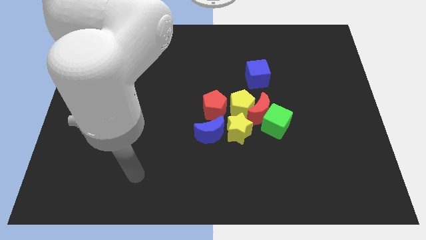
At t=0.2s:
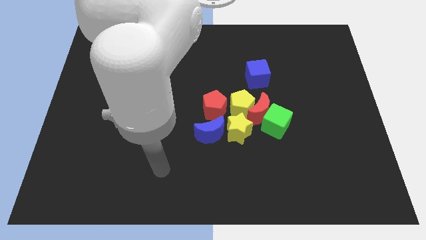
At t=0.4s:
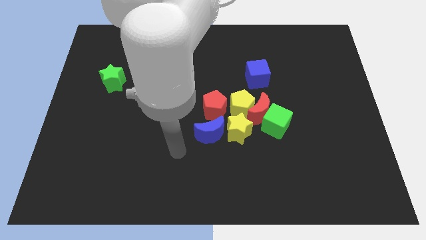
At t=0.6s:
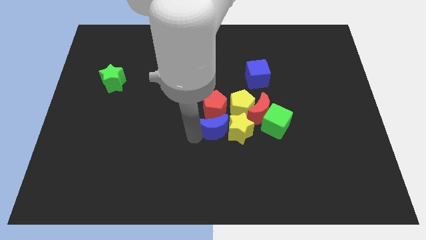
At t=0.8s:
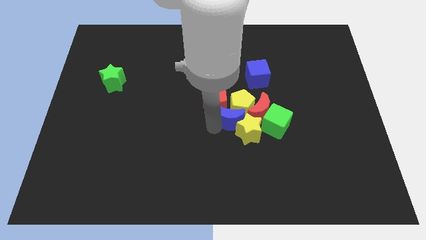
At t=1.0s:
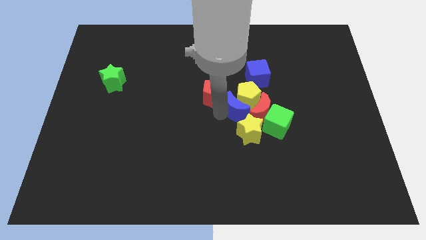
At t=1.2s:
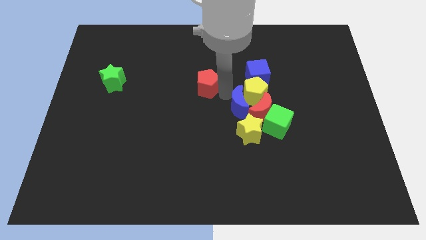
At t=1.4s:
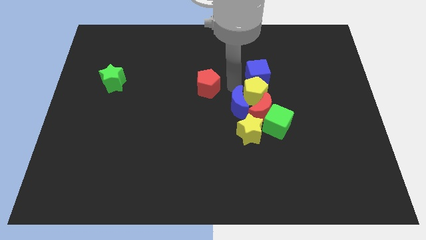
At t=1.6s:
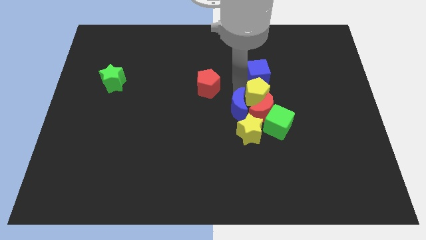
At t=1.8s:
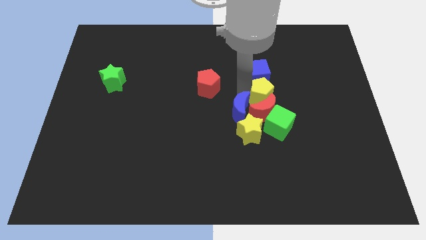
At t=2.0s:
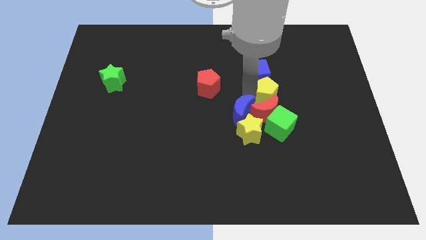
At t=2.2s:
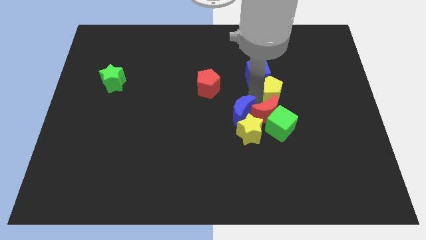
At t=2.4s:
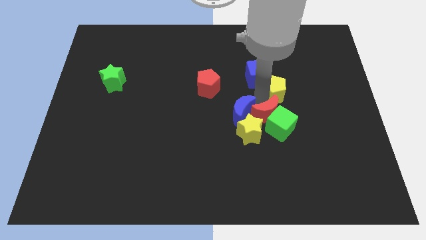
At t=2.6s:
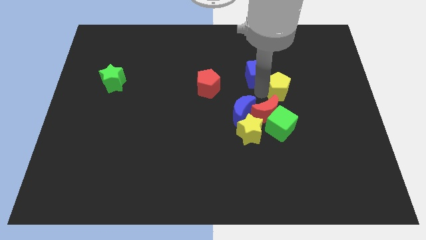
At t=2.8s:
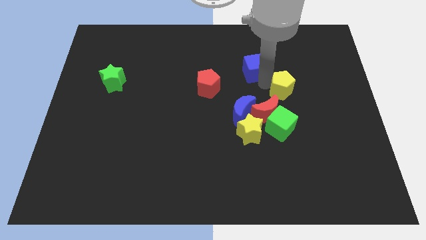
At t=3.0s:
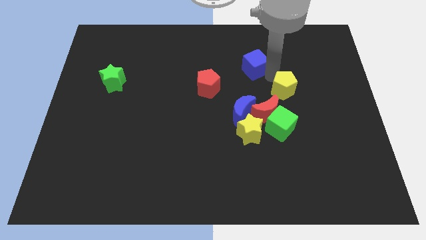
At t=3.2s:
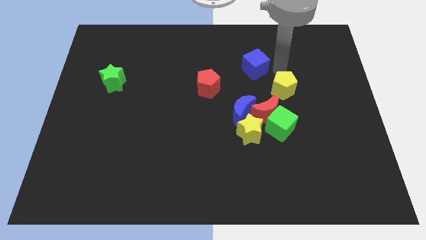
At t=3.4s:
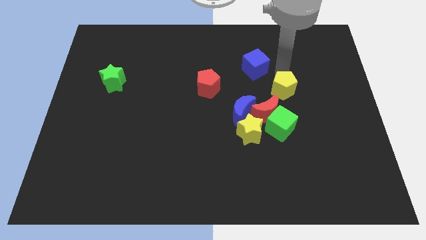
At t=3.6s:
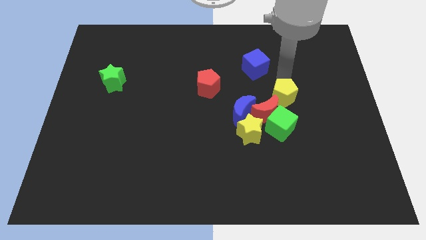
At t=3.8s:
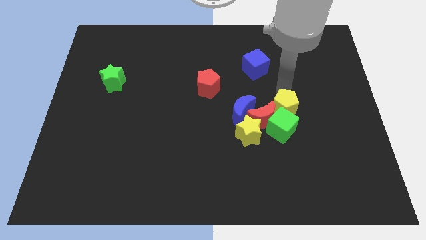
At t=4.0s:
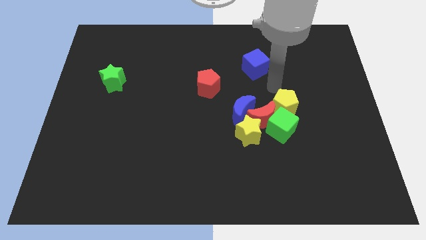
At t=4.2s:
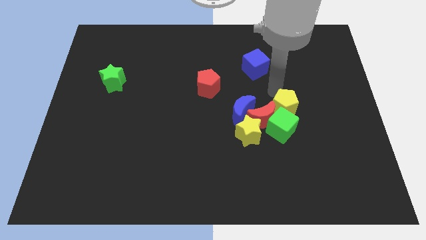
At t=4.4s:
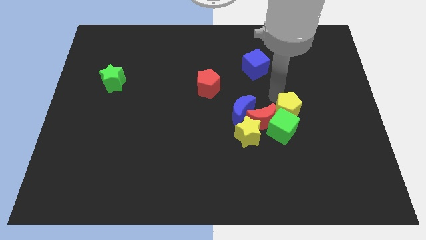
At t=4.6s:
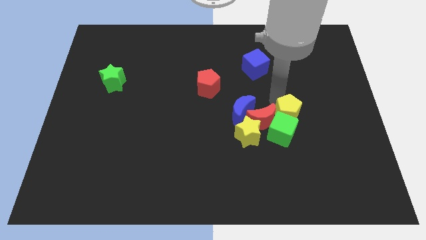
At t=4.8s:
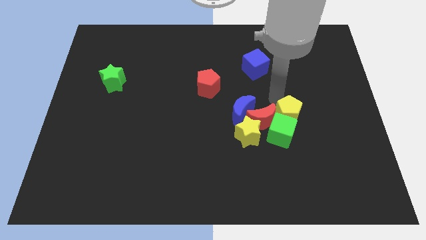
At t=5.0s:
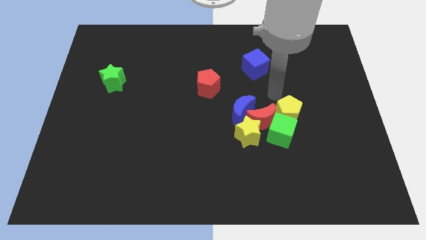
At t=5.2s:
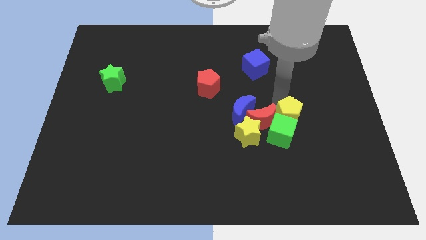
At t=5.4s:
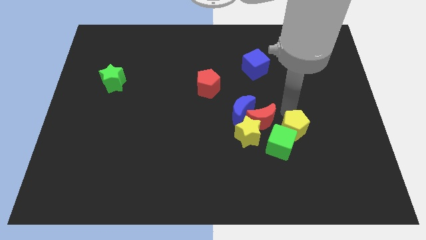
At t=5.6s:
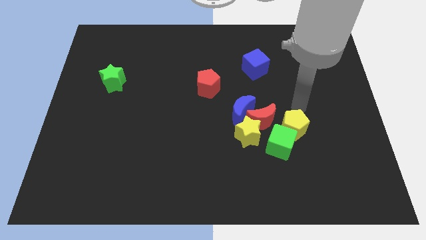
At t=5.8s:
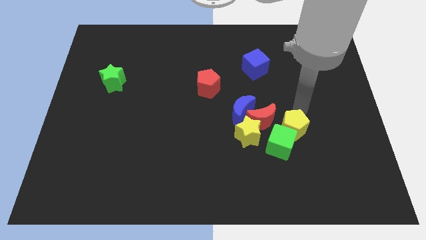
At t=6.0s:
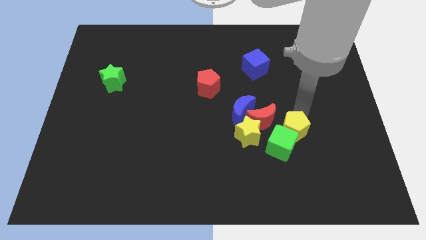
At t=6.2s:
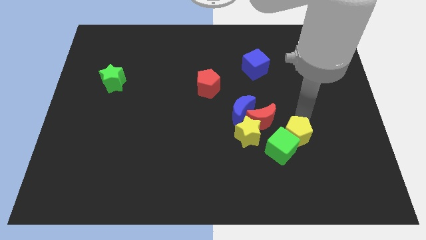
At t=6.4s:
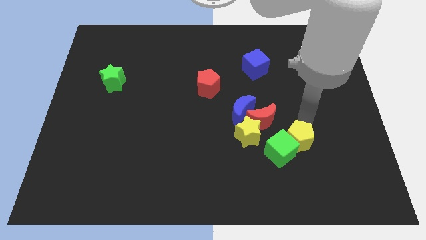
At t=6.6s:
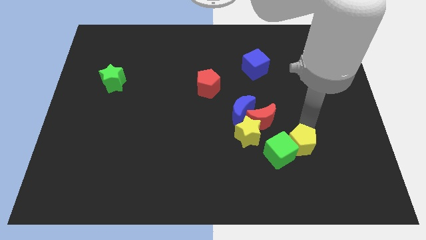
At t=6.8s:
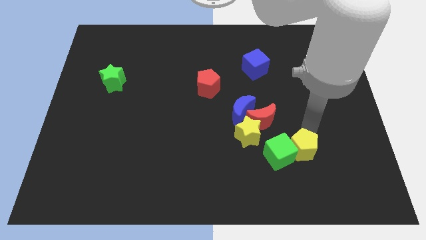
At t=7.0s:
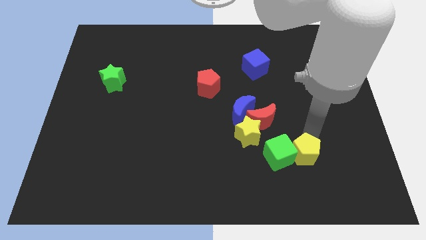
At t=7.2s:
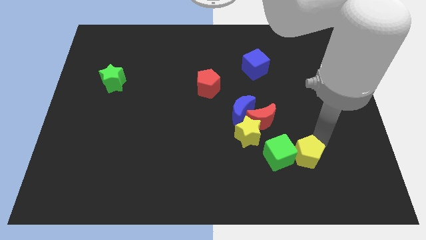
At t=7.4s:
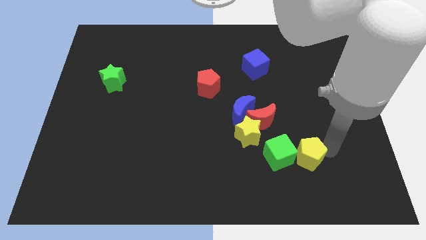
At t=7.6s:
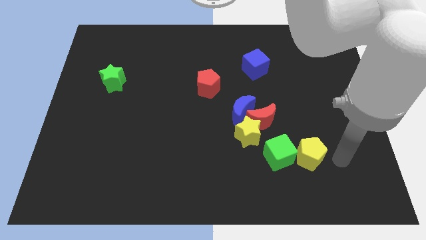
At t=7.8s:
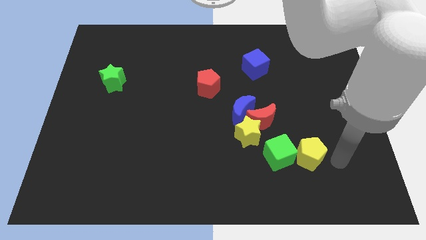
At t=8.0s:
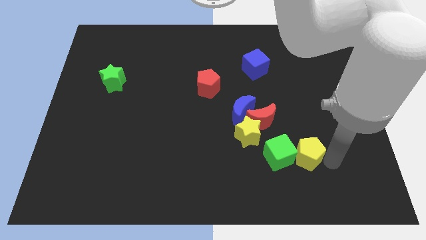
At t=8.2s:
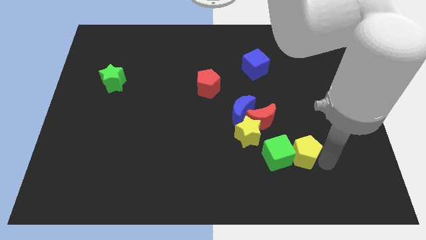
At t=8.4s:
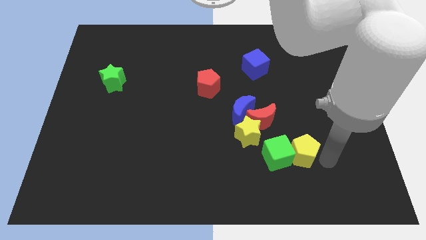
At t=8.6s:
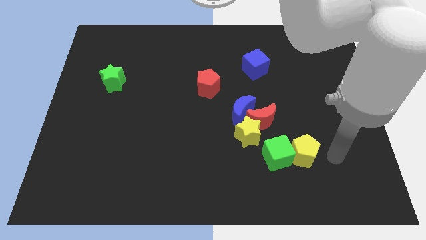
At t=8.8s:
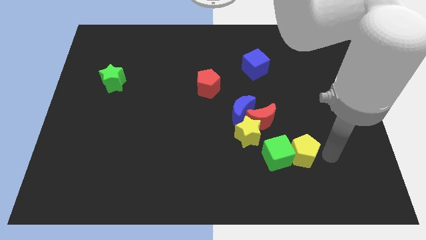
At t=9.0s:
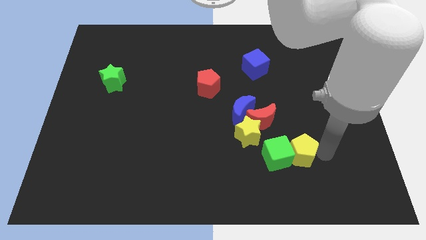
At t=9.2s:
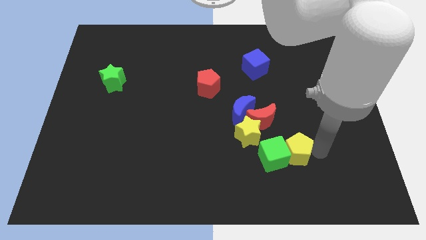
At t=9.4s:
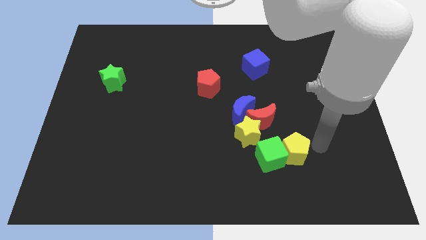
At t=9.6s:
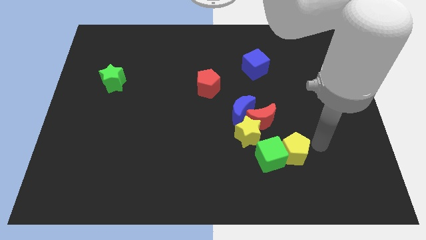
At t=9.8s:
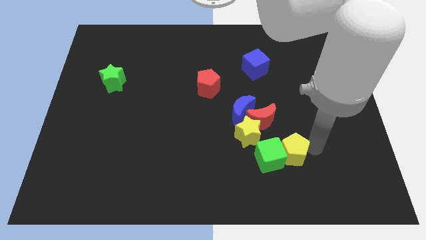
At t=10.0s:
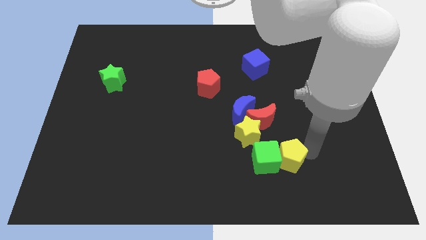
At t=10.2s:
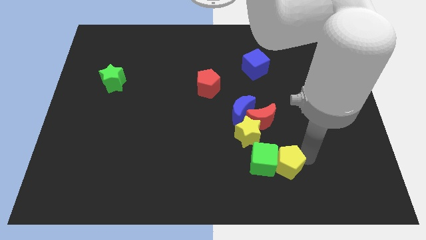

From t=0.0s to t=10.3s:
put the yellow pentagon below the red moon

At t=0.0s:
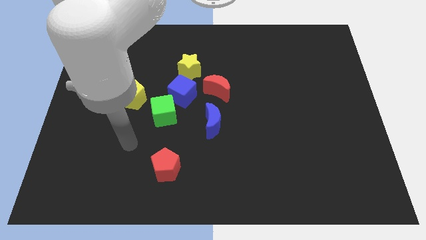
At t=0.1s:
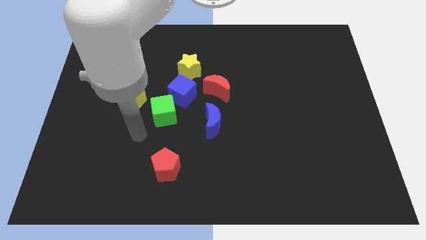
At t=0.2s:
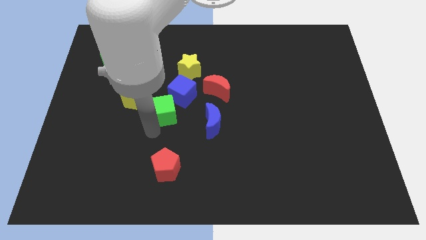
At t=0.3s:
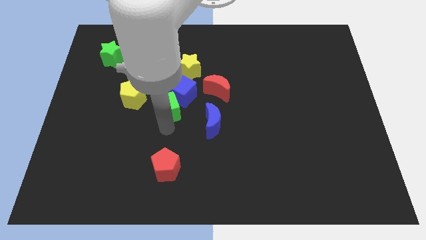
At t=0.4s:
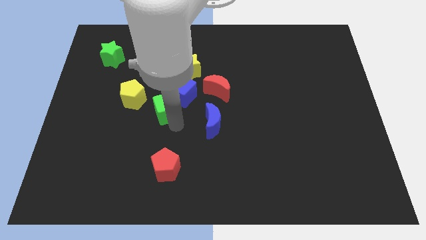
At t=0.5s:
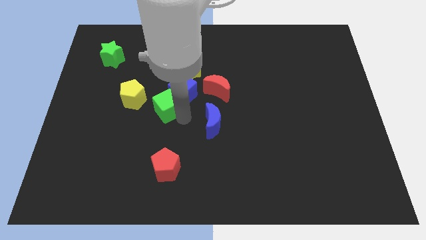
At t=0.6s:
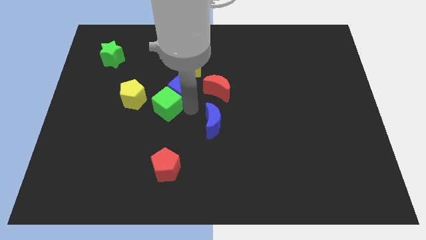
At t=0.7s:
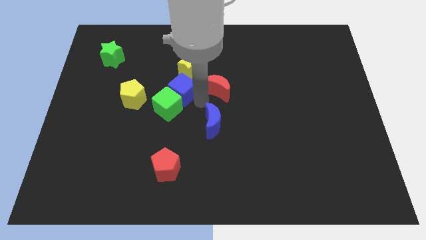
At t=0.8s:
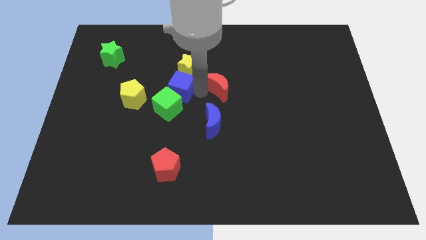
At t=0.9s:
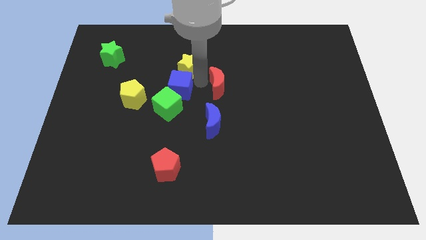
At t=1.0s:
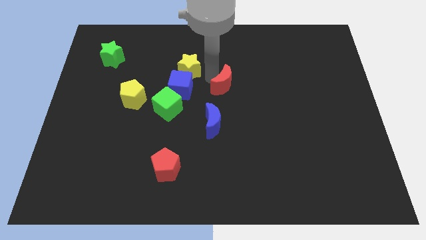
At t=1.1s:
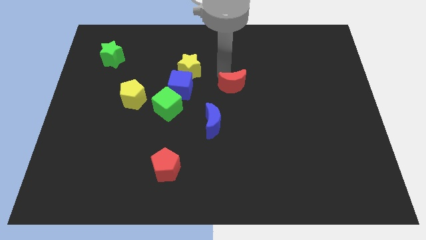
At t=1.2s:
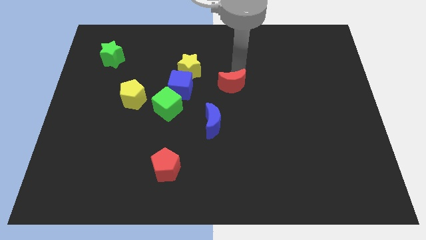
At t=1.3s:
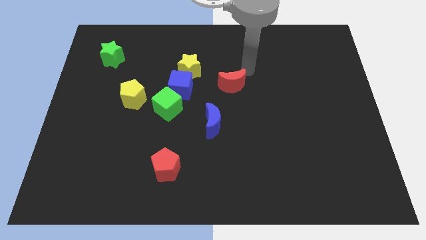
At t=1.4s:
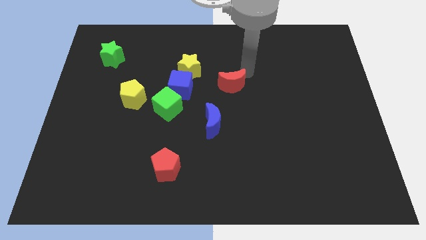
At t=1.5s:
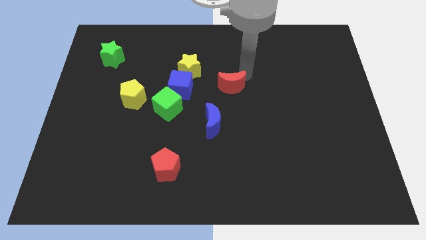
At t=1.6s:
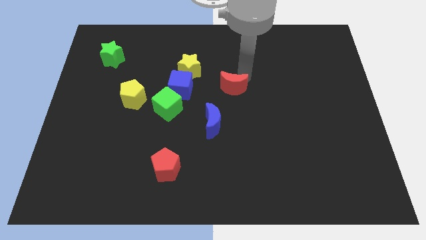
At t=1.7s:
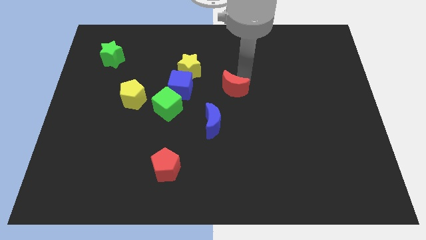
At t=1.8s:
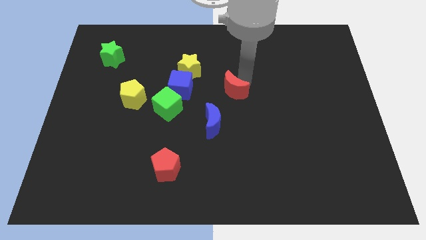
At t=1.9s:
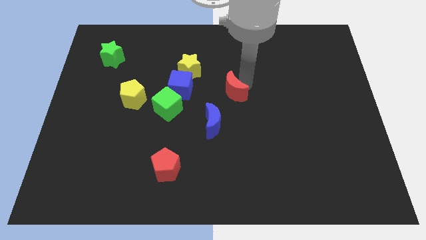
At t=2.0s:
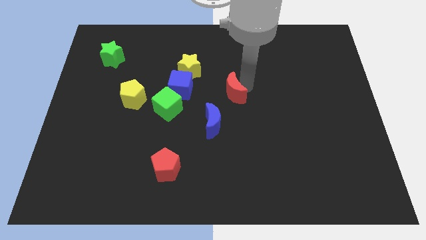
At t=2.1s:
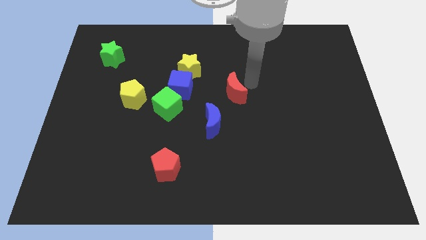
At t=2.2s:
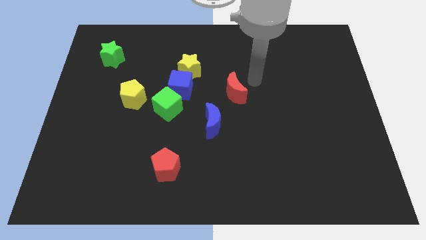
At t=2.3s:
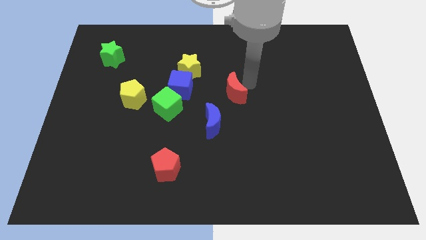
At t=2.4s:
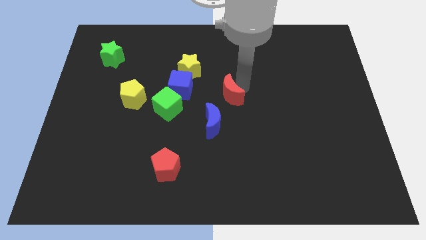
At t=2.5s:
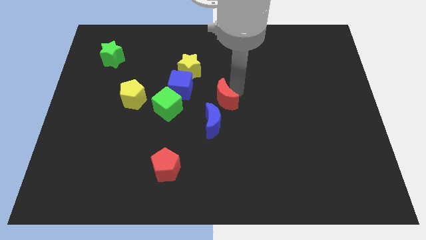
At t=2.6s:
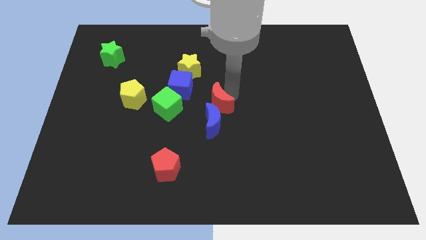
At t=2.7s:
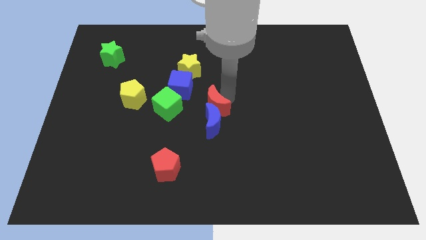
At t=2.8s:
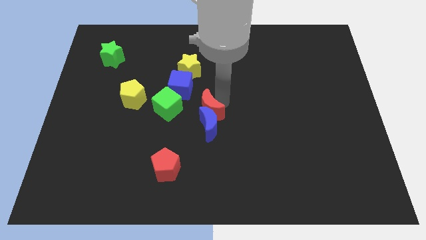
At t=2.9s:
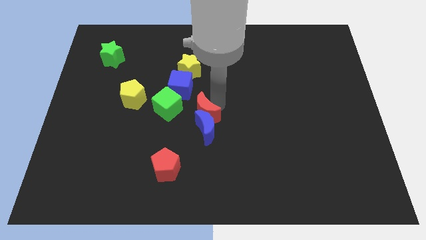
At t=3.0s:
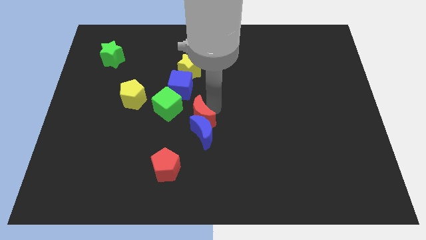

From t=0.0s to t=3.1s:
move the red moon to the bottom right side of the green cube
